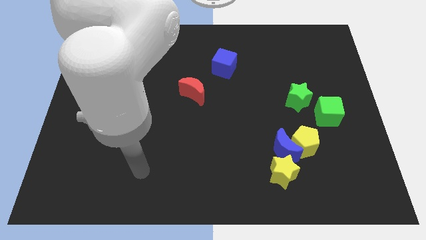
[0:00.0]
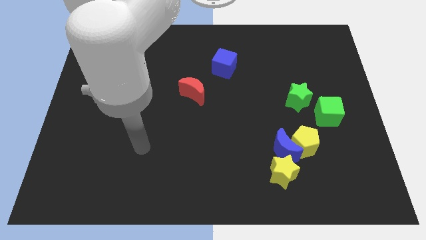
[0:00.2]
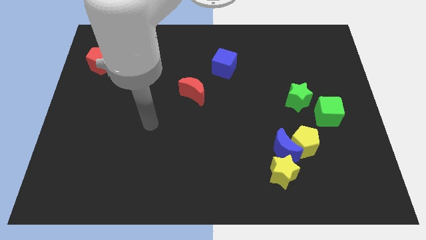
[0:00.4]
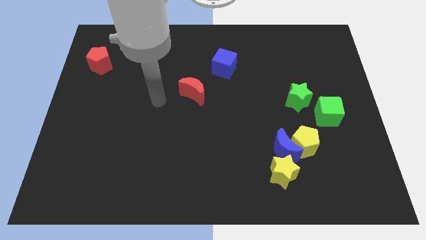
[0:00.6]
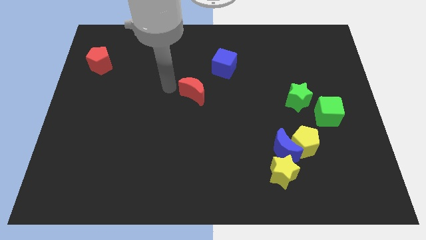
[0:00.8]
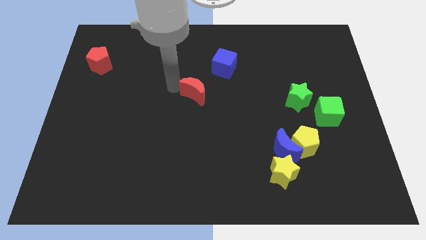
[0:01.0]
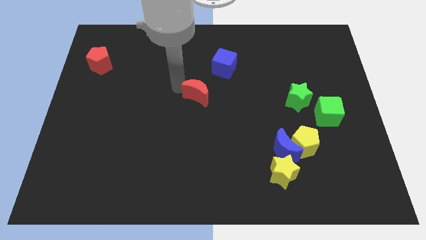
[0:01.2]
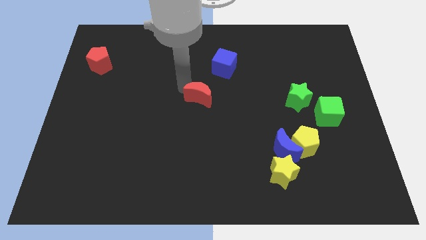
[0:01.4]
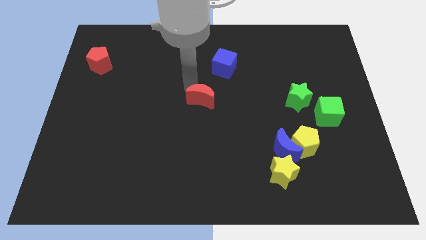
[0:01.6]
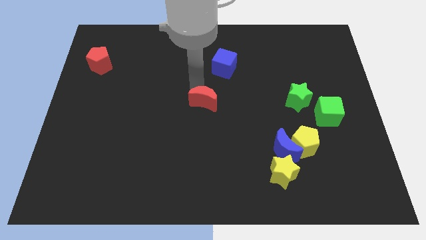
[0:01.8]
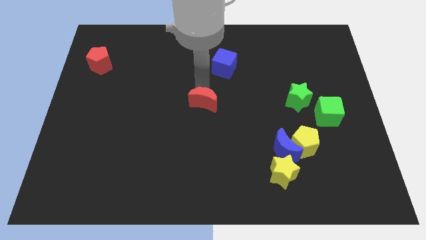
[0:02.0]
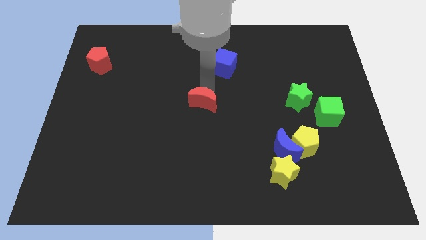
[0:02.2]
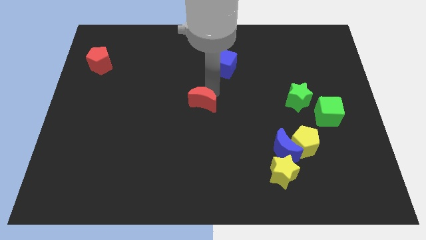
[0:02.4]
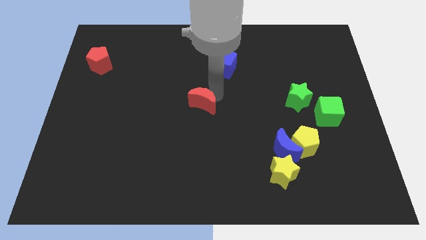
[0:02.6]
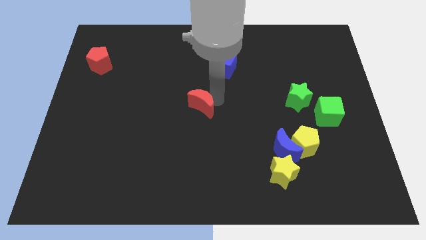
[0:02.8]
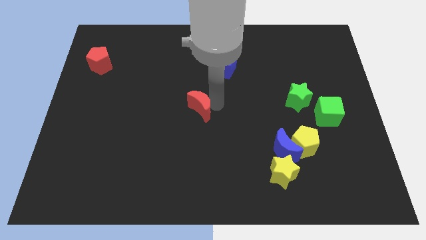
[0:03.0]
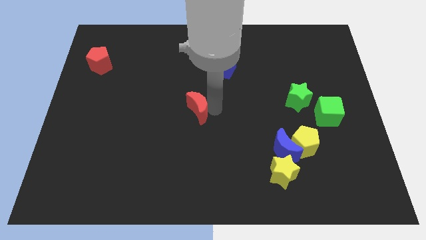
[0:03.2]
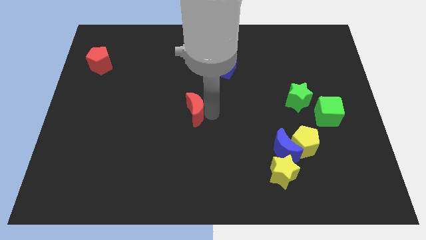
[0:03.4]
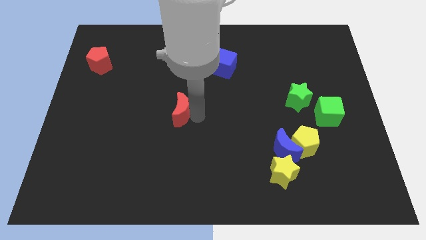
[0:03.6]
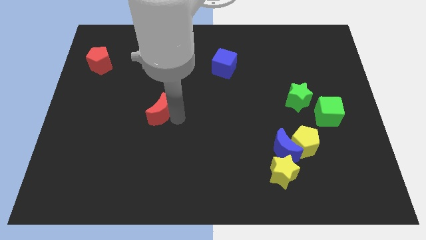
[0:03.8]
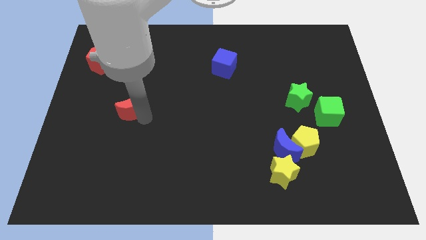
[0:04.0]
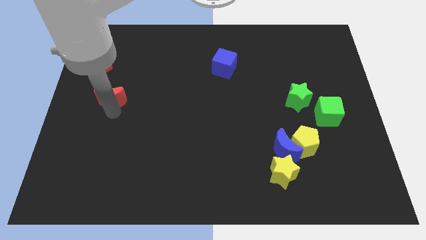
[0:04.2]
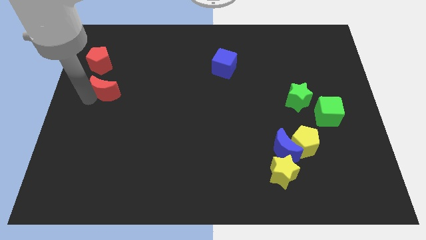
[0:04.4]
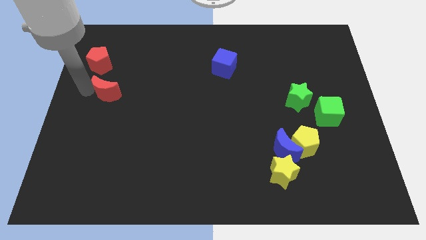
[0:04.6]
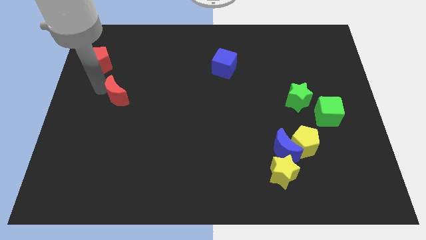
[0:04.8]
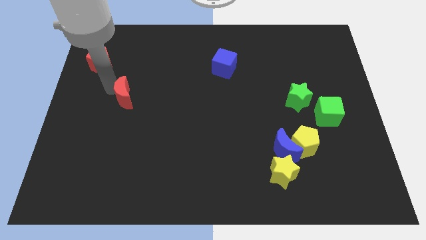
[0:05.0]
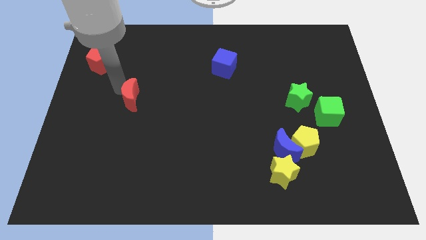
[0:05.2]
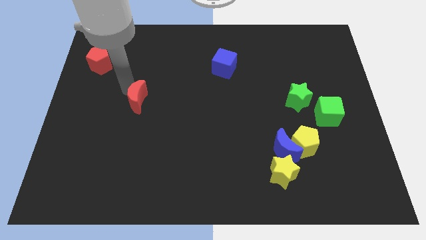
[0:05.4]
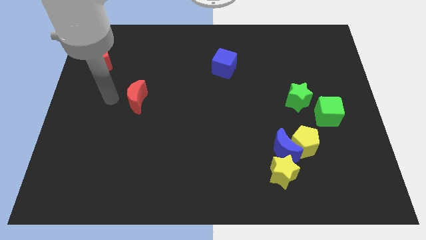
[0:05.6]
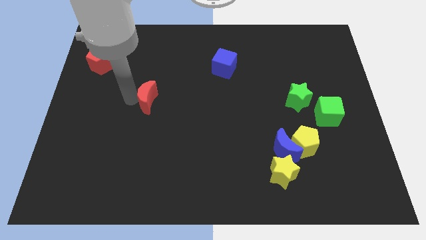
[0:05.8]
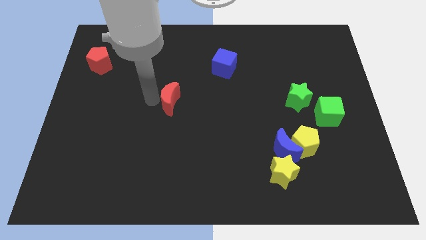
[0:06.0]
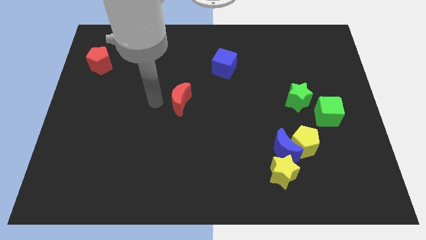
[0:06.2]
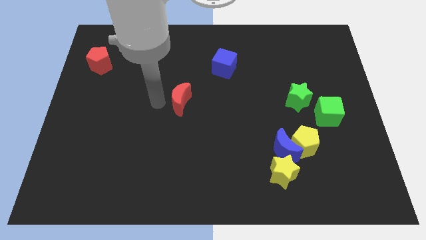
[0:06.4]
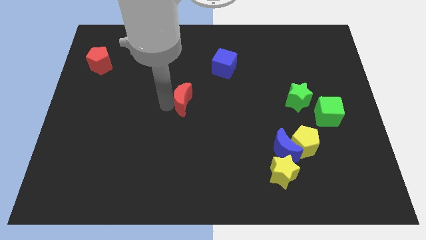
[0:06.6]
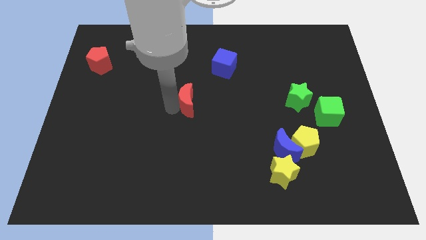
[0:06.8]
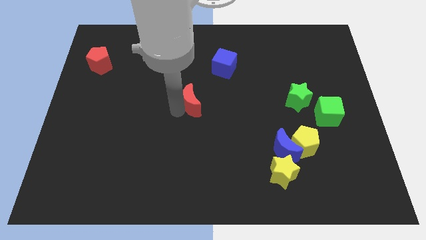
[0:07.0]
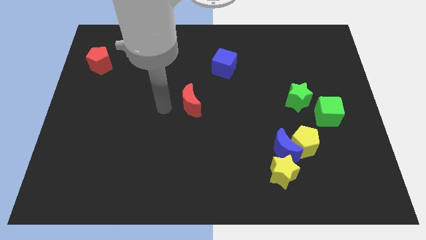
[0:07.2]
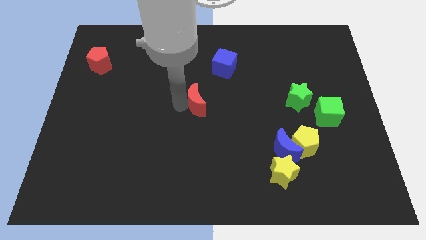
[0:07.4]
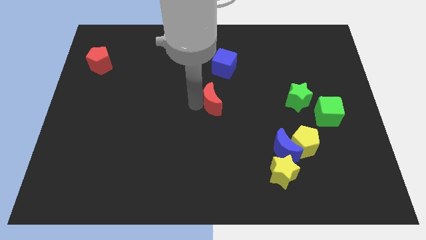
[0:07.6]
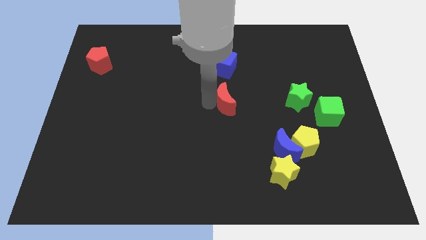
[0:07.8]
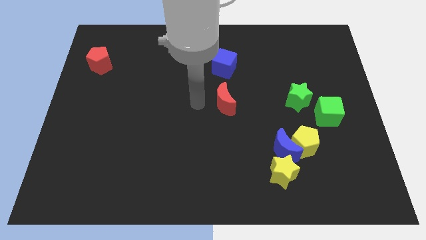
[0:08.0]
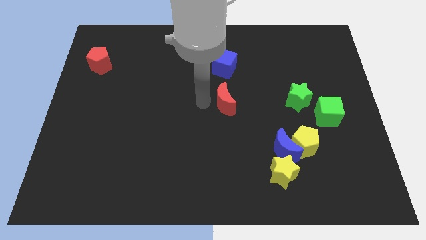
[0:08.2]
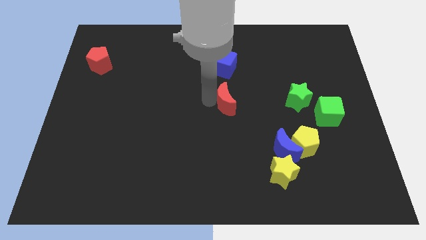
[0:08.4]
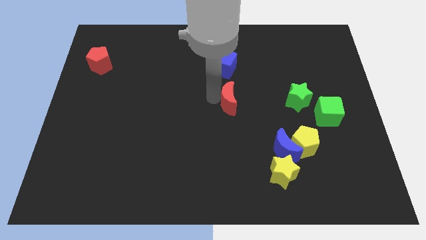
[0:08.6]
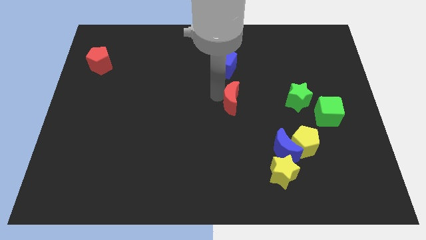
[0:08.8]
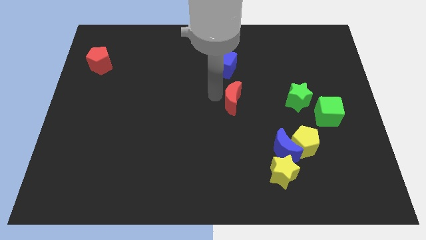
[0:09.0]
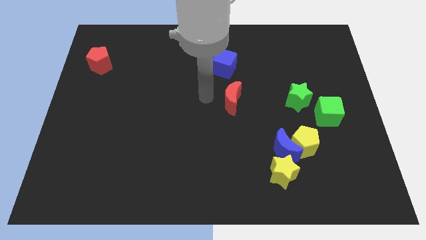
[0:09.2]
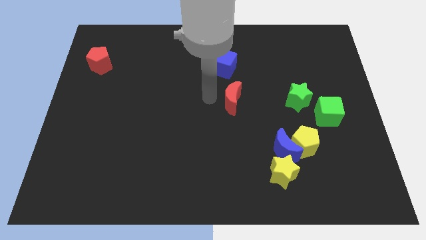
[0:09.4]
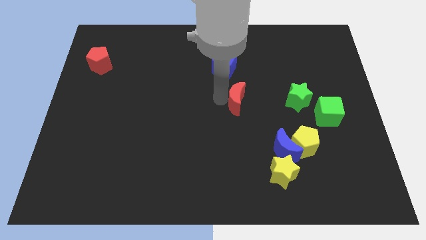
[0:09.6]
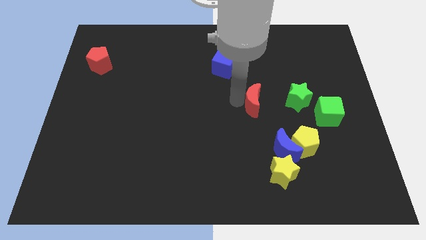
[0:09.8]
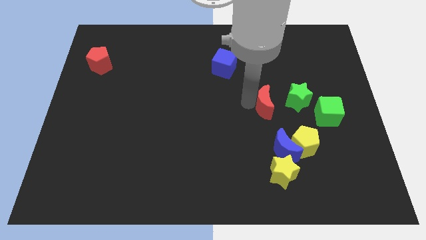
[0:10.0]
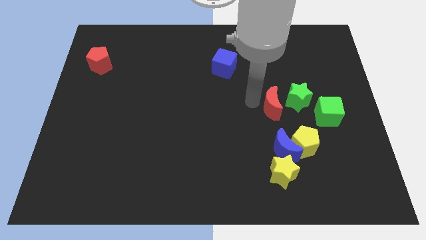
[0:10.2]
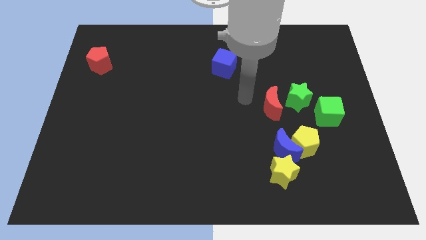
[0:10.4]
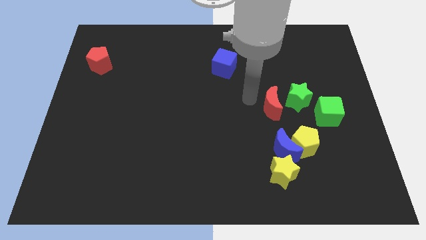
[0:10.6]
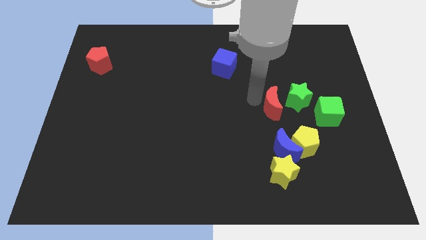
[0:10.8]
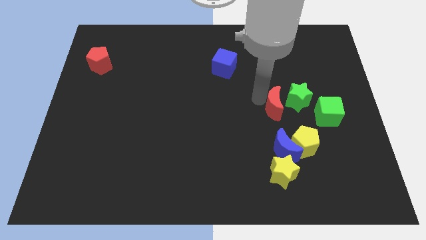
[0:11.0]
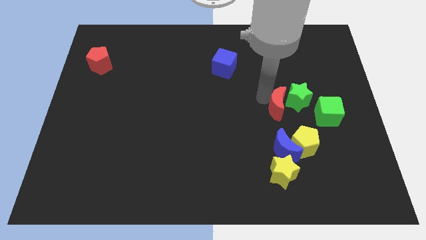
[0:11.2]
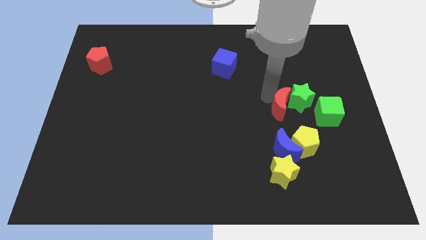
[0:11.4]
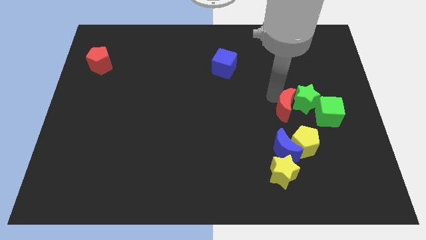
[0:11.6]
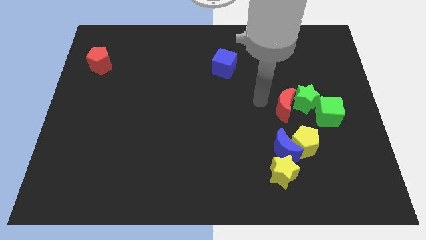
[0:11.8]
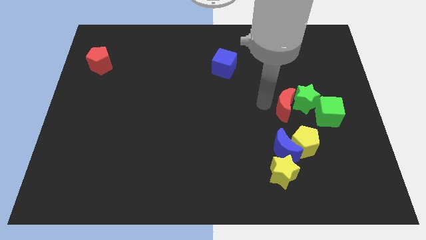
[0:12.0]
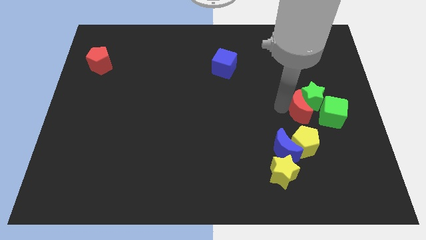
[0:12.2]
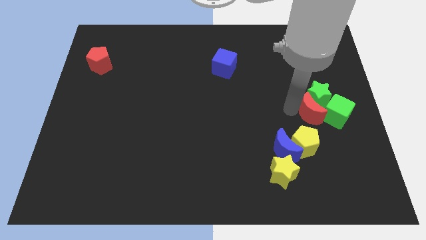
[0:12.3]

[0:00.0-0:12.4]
push the red moon to the green cube

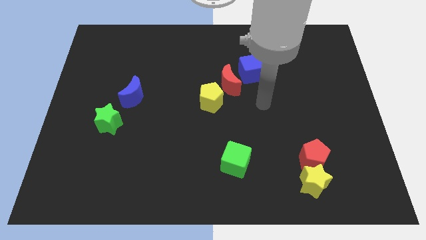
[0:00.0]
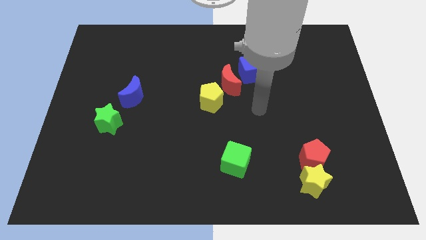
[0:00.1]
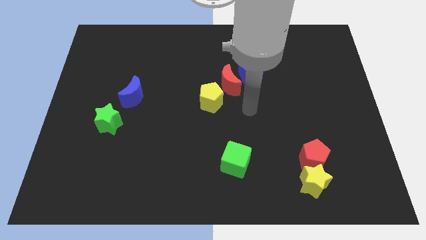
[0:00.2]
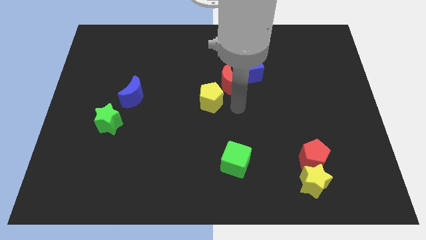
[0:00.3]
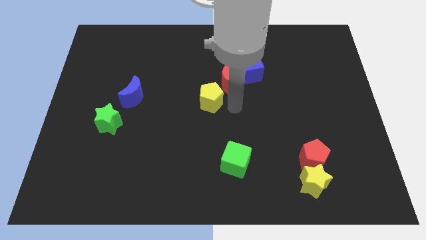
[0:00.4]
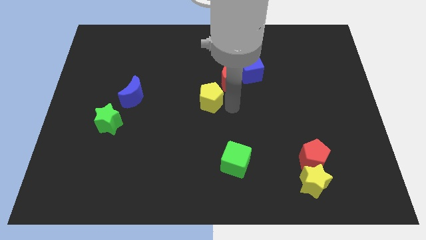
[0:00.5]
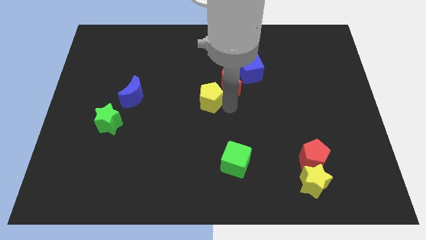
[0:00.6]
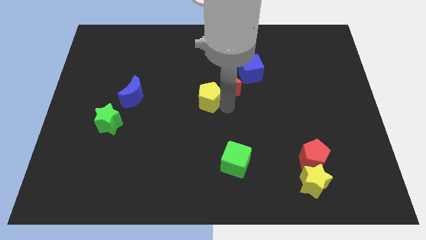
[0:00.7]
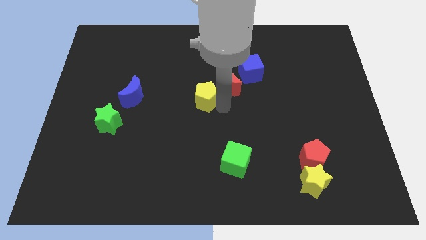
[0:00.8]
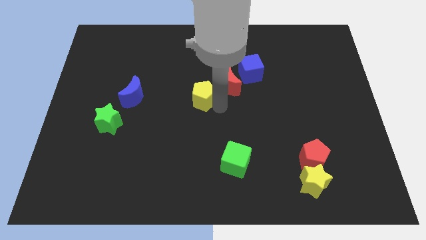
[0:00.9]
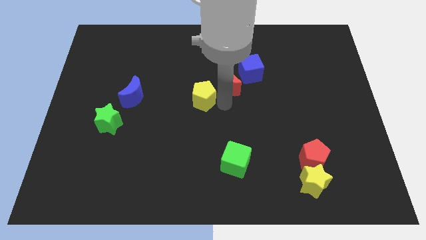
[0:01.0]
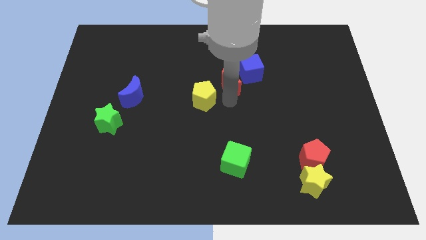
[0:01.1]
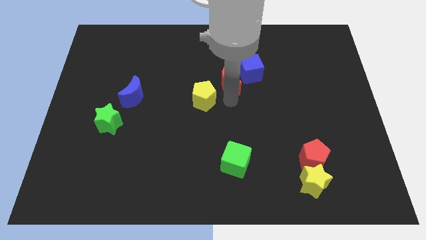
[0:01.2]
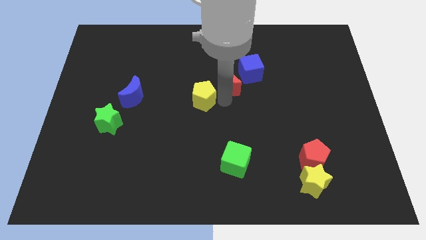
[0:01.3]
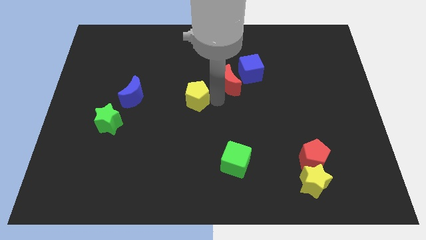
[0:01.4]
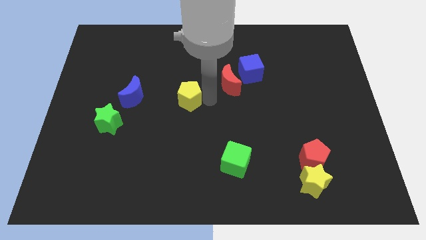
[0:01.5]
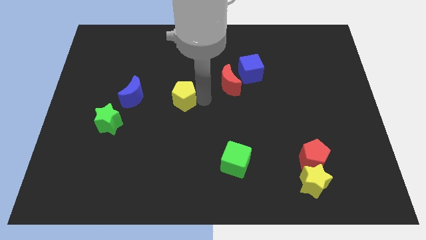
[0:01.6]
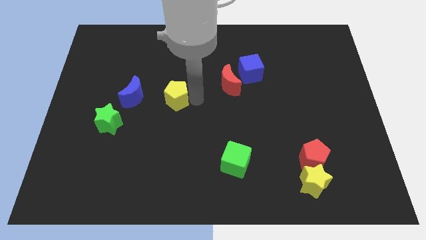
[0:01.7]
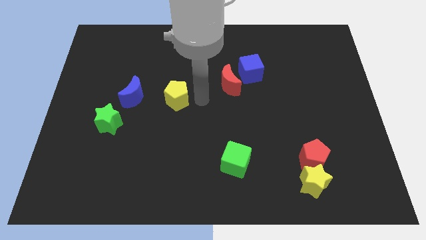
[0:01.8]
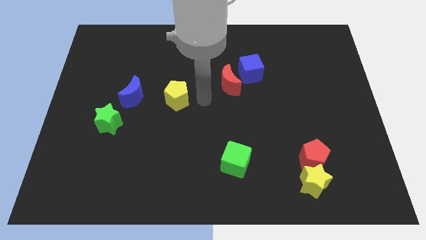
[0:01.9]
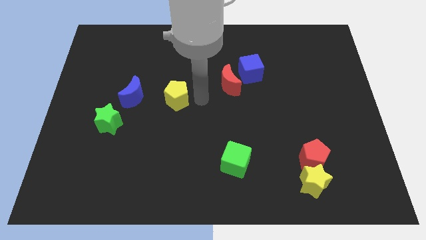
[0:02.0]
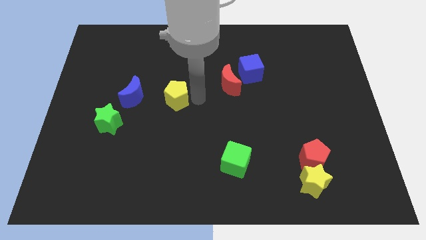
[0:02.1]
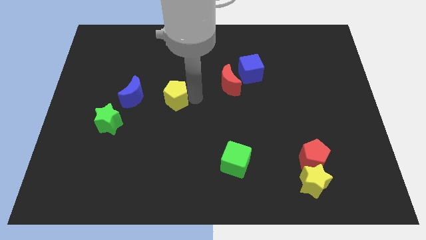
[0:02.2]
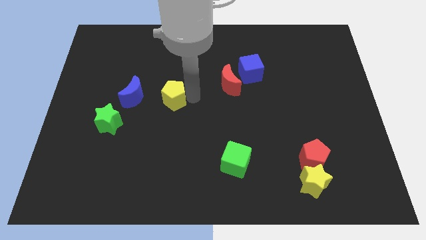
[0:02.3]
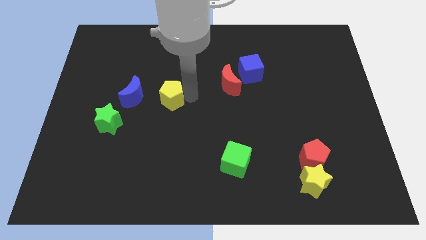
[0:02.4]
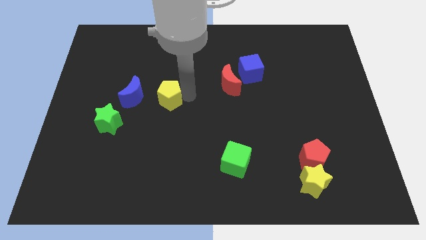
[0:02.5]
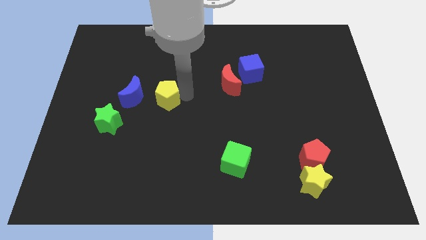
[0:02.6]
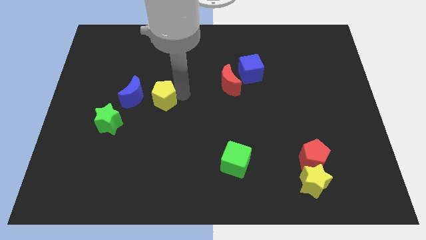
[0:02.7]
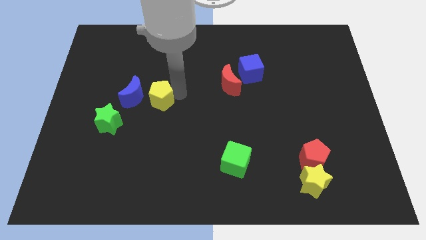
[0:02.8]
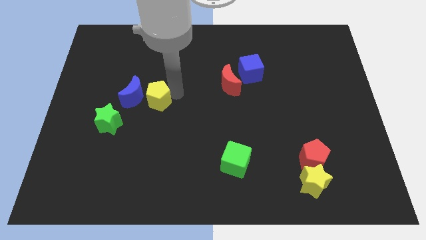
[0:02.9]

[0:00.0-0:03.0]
put the yellow pentagon close to the blue moon
